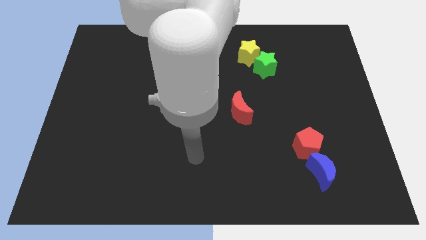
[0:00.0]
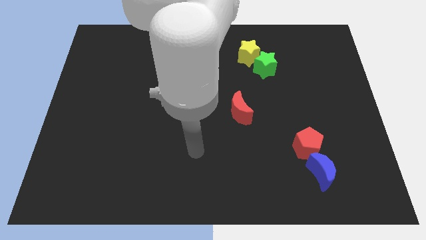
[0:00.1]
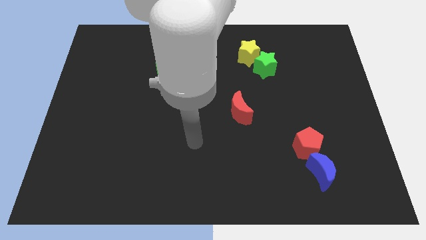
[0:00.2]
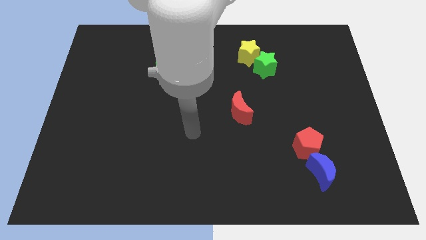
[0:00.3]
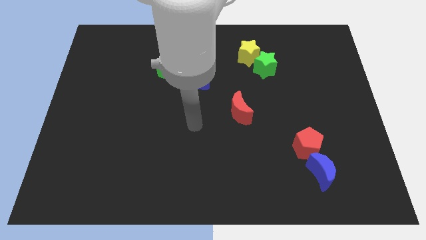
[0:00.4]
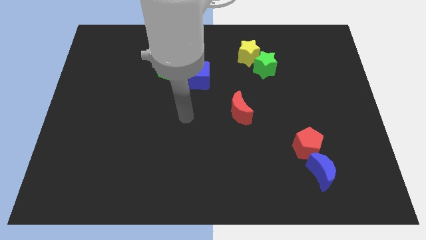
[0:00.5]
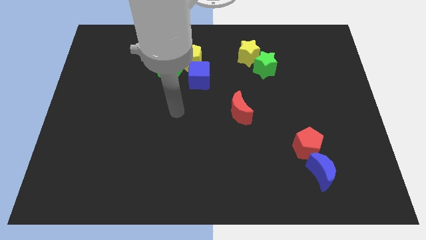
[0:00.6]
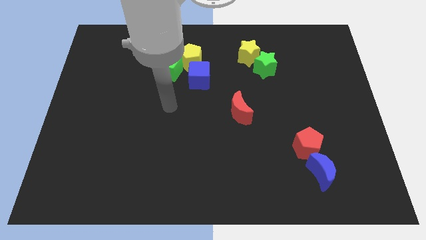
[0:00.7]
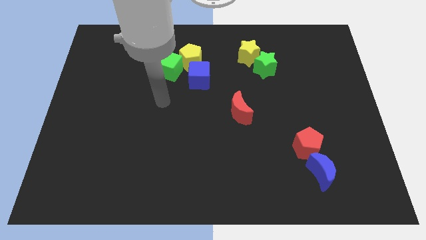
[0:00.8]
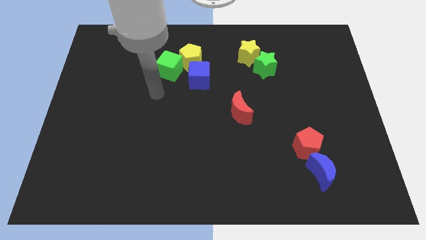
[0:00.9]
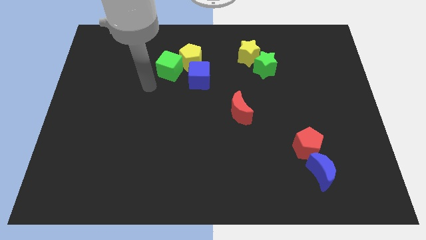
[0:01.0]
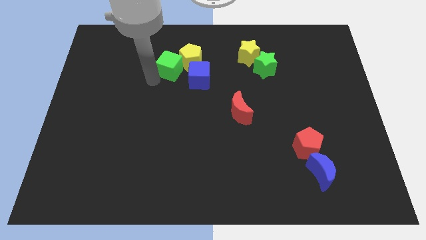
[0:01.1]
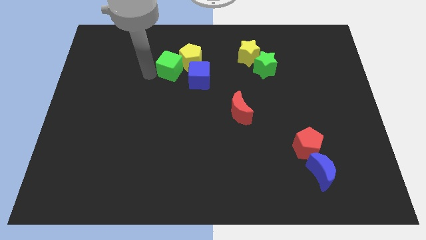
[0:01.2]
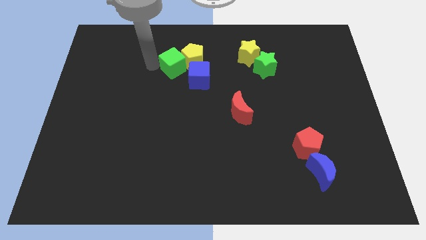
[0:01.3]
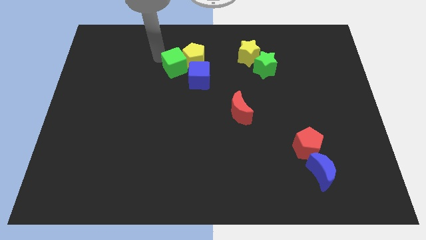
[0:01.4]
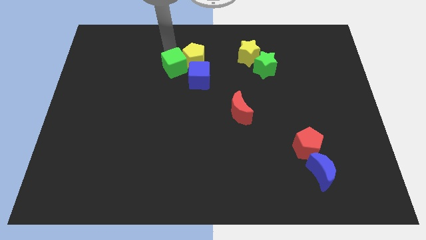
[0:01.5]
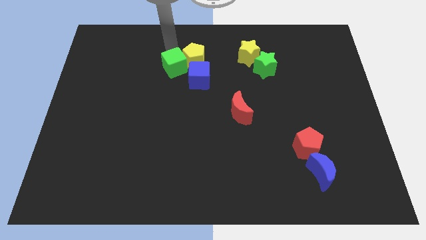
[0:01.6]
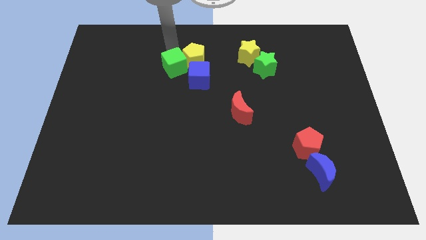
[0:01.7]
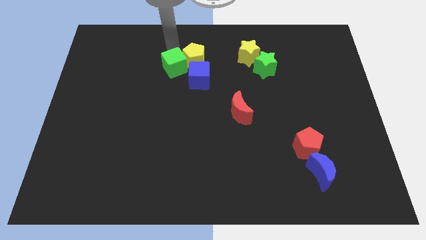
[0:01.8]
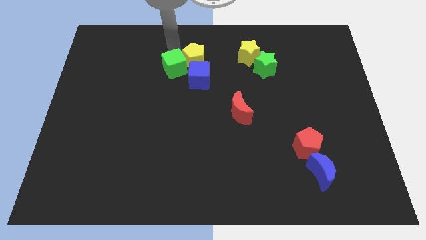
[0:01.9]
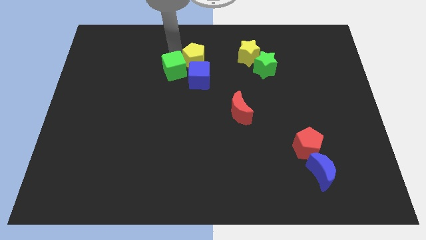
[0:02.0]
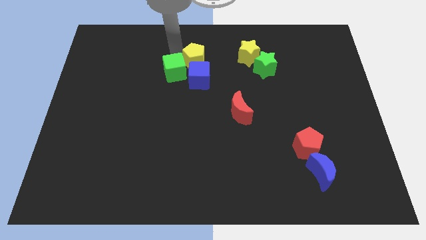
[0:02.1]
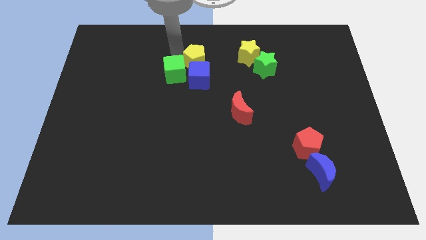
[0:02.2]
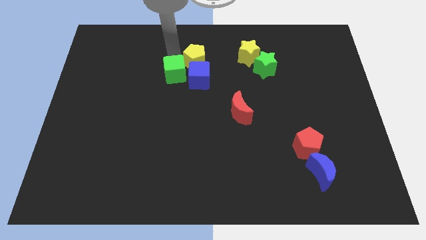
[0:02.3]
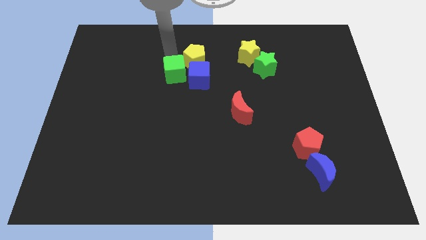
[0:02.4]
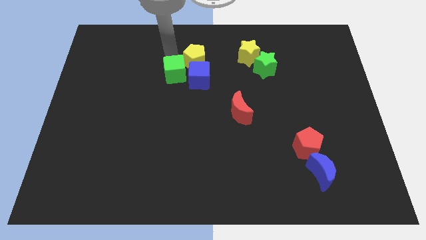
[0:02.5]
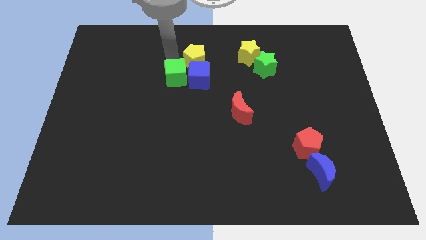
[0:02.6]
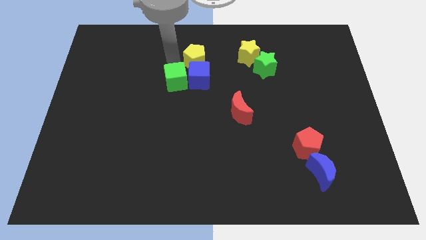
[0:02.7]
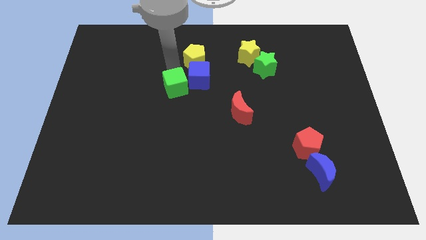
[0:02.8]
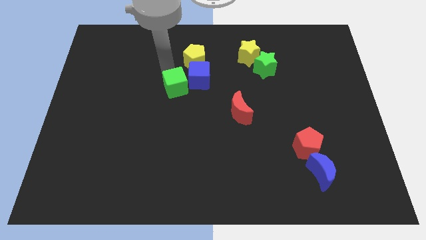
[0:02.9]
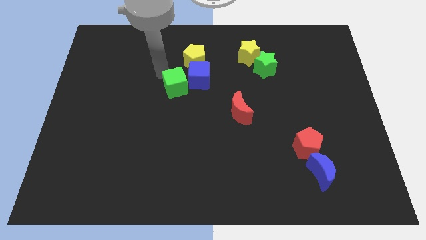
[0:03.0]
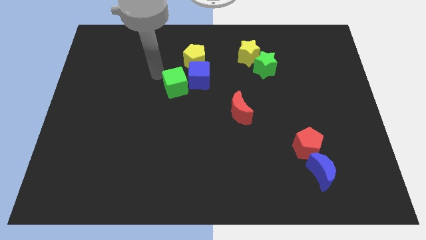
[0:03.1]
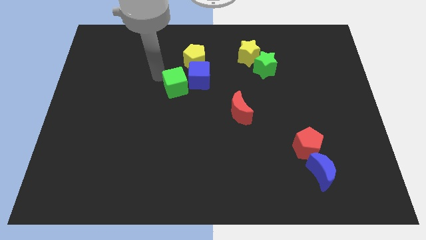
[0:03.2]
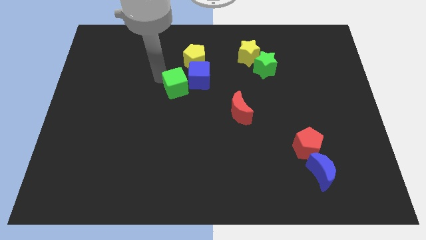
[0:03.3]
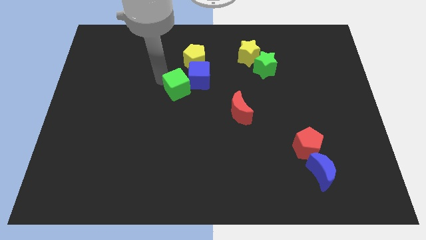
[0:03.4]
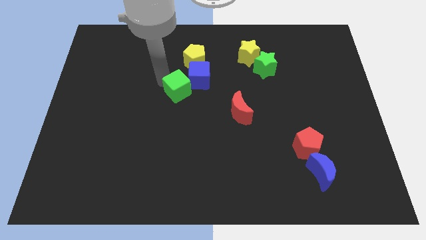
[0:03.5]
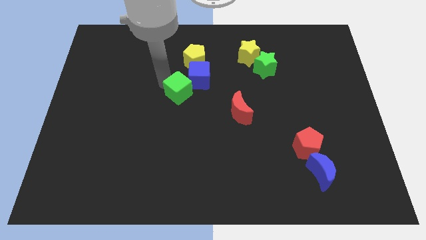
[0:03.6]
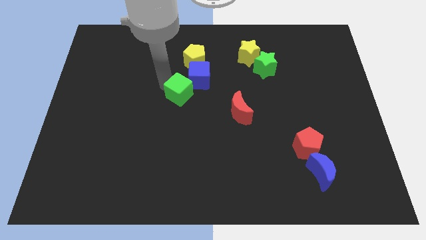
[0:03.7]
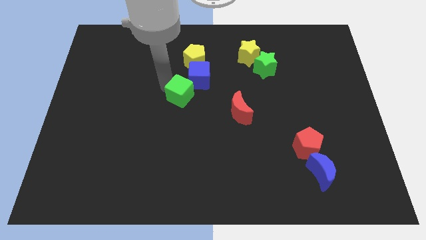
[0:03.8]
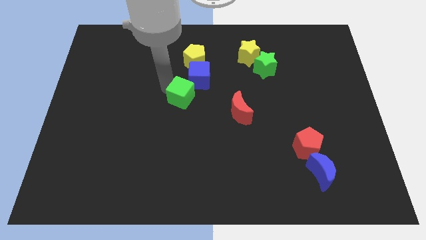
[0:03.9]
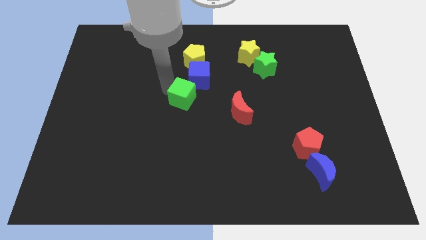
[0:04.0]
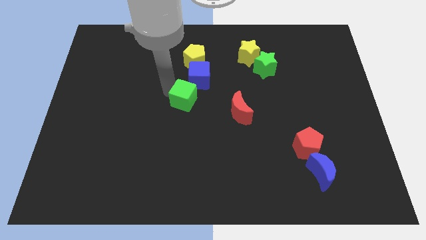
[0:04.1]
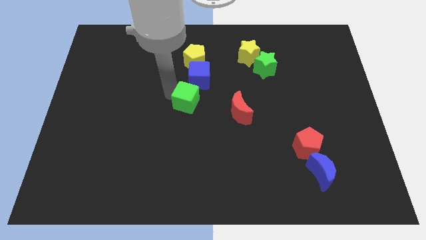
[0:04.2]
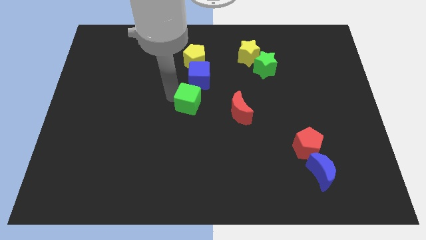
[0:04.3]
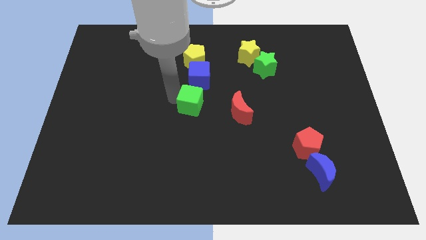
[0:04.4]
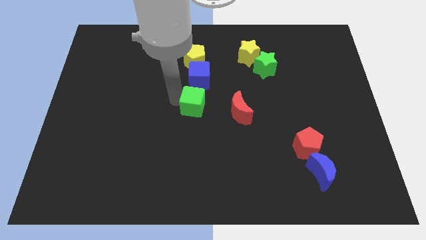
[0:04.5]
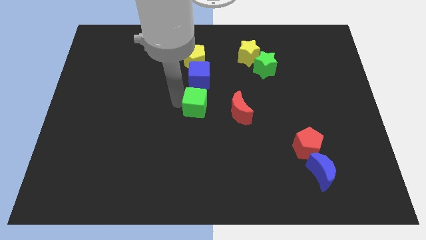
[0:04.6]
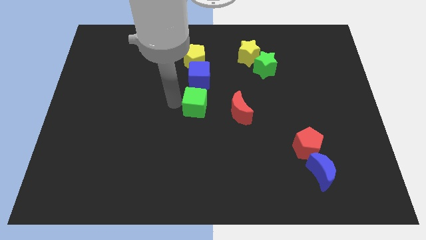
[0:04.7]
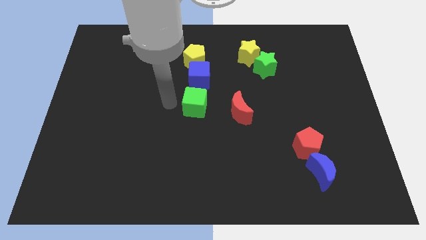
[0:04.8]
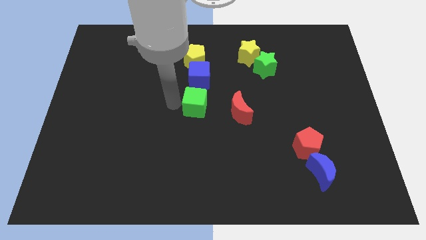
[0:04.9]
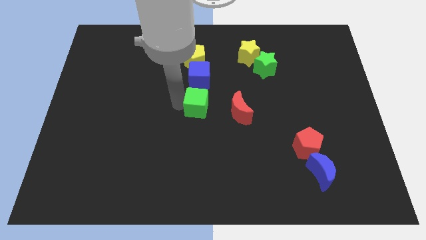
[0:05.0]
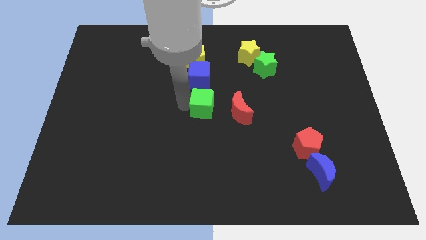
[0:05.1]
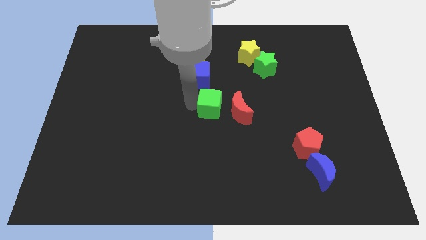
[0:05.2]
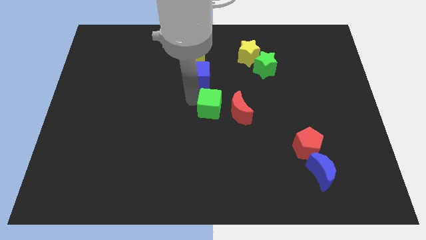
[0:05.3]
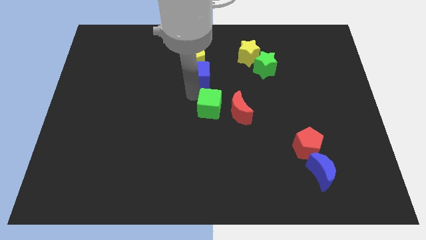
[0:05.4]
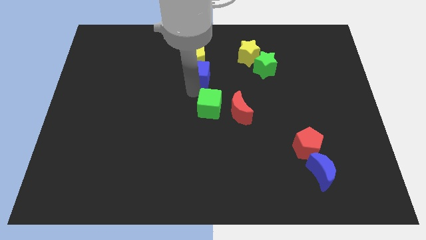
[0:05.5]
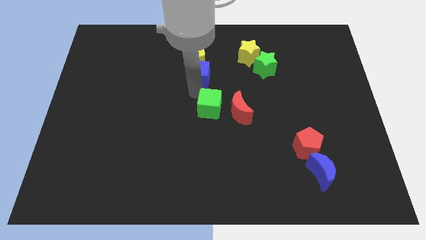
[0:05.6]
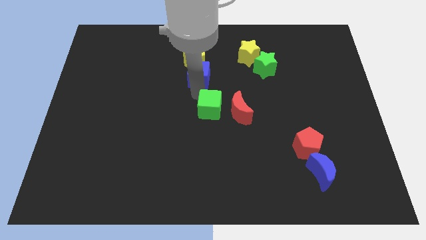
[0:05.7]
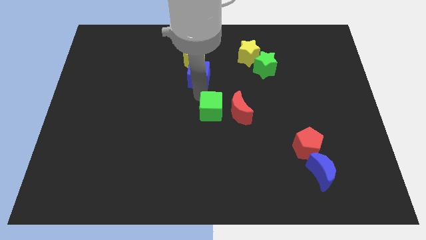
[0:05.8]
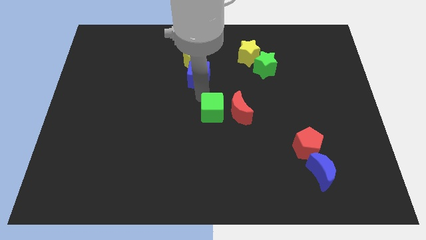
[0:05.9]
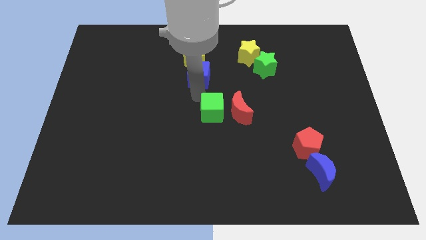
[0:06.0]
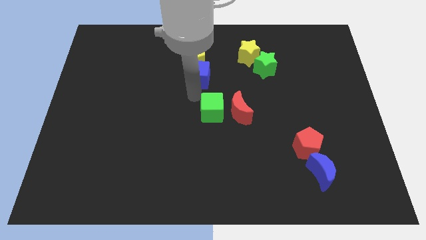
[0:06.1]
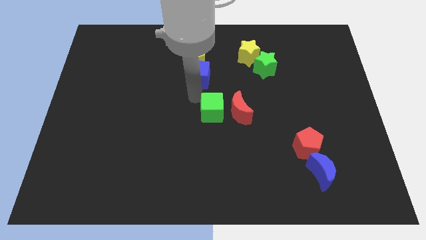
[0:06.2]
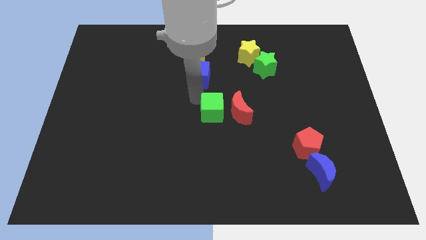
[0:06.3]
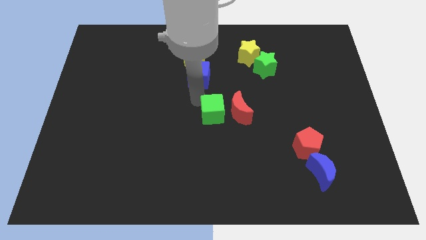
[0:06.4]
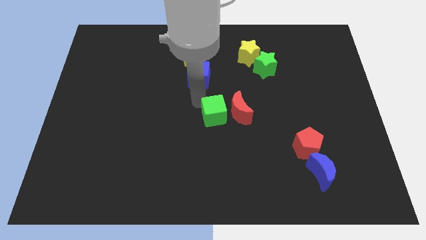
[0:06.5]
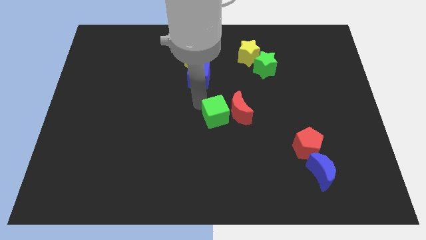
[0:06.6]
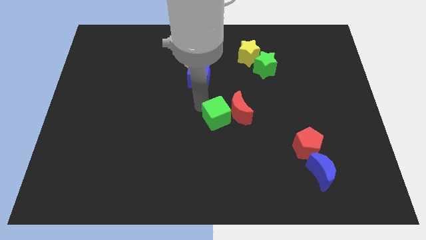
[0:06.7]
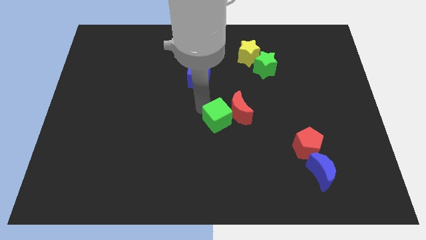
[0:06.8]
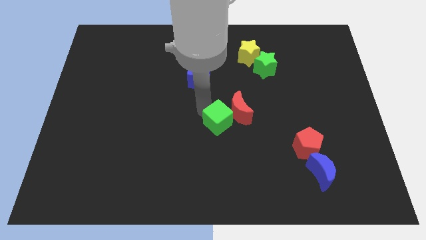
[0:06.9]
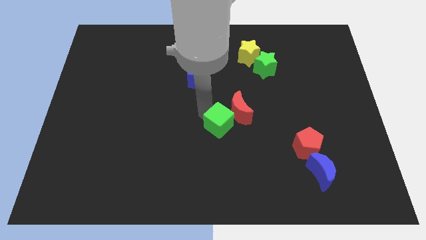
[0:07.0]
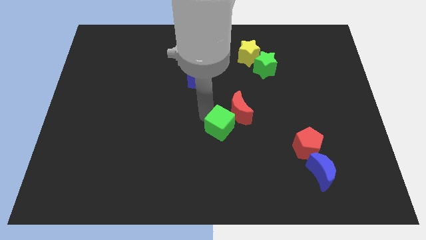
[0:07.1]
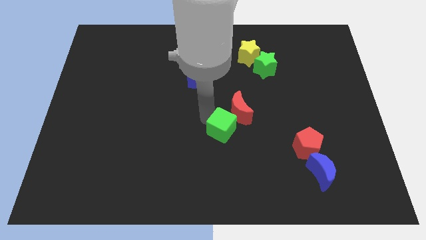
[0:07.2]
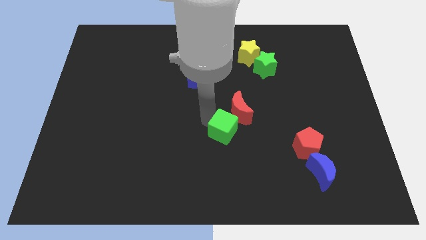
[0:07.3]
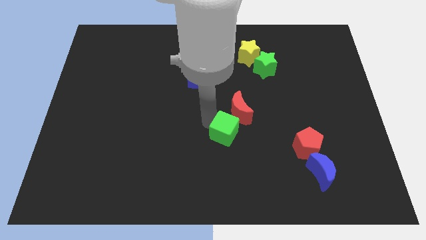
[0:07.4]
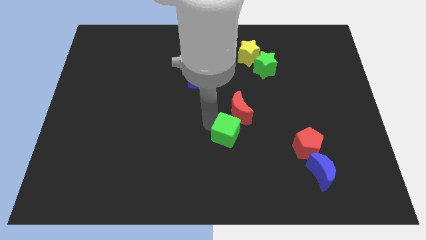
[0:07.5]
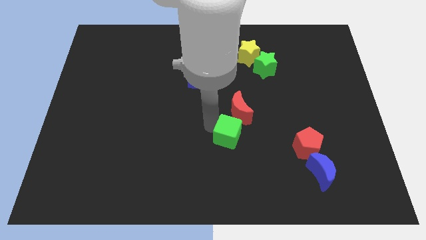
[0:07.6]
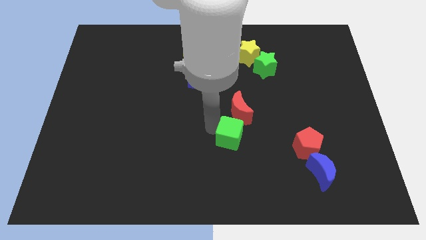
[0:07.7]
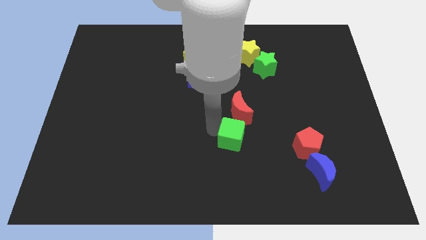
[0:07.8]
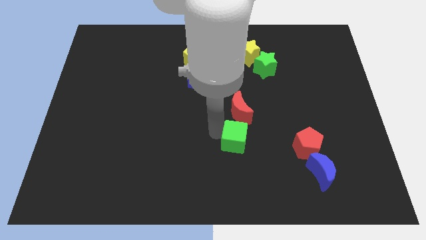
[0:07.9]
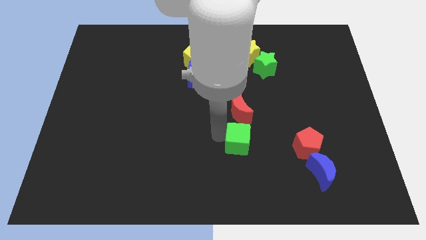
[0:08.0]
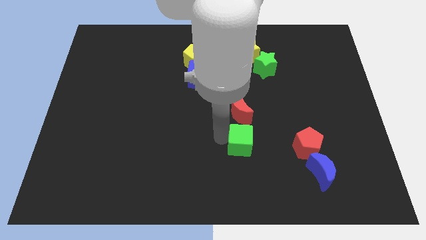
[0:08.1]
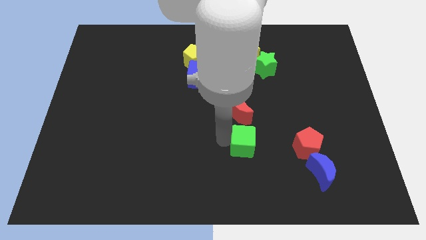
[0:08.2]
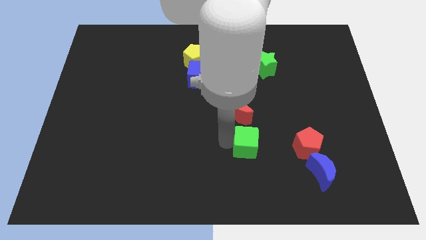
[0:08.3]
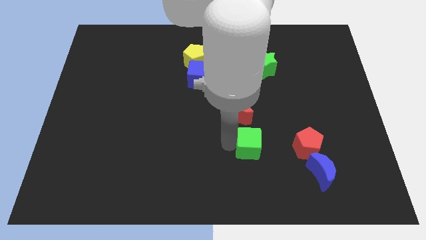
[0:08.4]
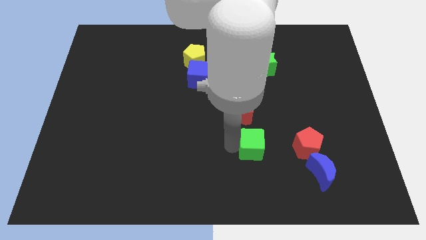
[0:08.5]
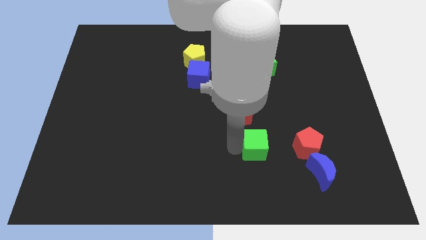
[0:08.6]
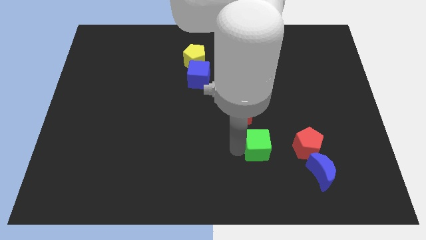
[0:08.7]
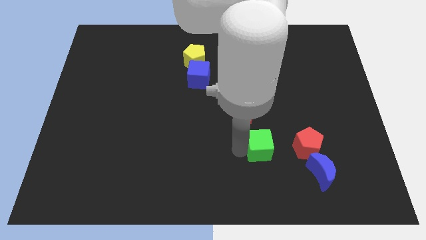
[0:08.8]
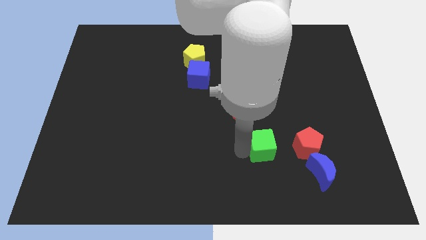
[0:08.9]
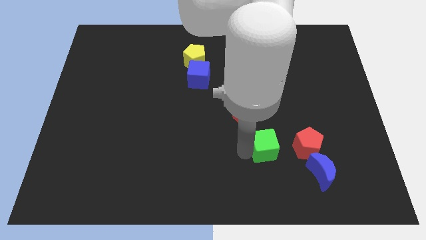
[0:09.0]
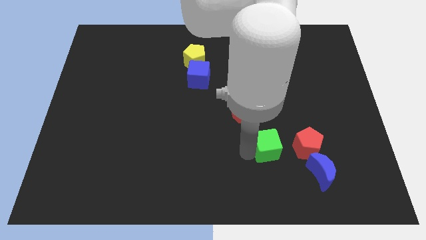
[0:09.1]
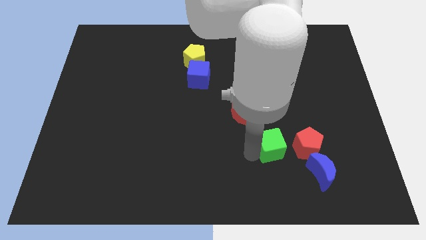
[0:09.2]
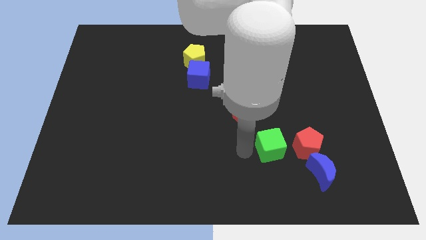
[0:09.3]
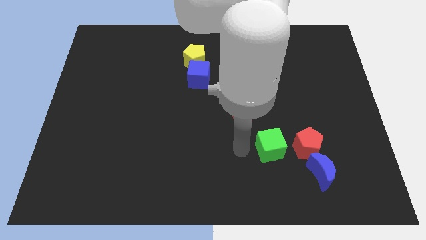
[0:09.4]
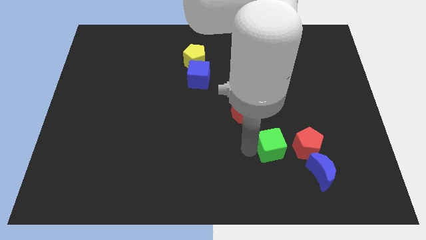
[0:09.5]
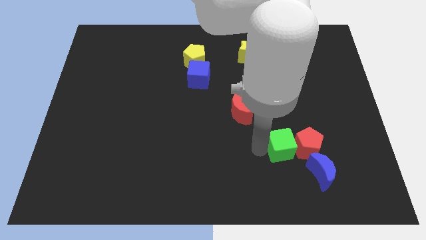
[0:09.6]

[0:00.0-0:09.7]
move the green cube close to the red pentagon
